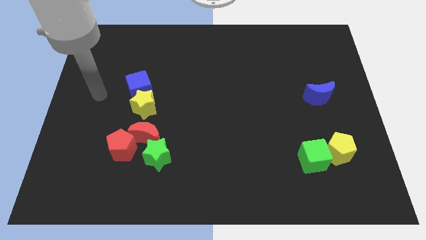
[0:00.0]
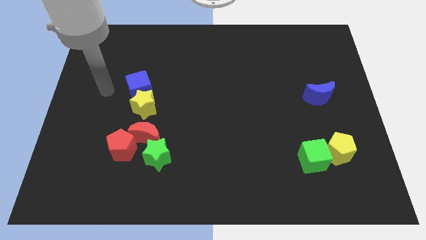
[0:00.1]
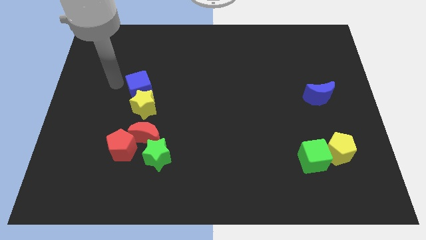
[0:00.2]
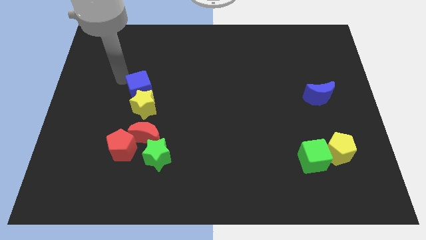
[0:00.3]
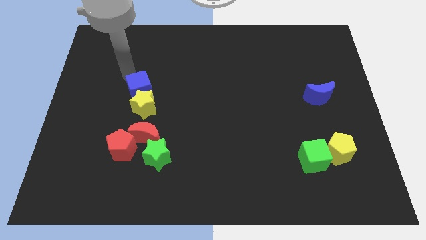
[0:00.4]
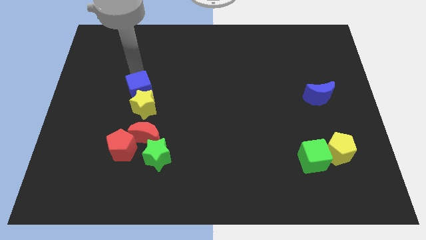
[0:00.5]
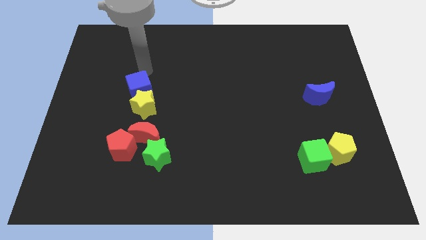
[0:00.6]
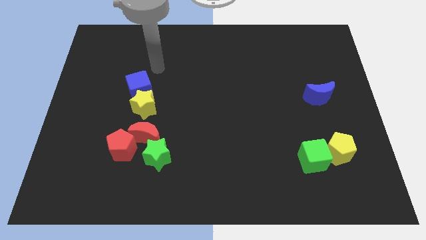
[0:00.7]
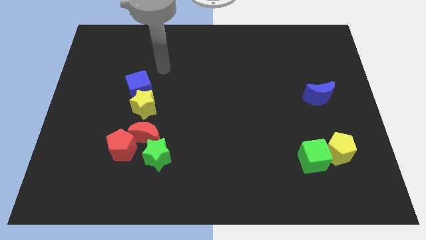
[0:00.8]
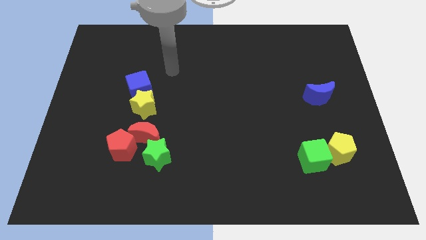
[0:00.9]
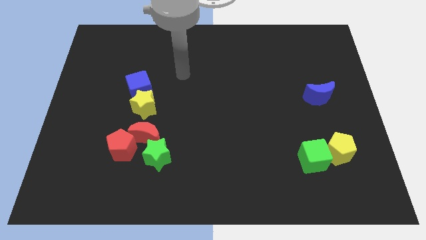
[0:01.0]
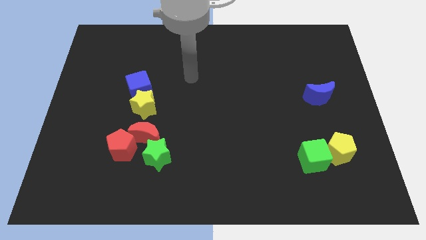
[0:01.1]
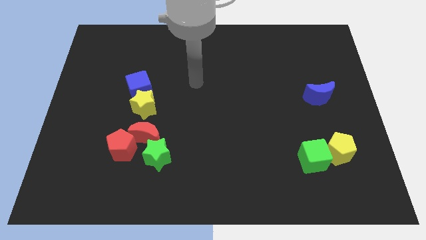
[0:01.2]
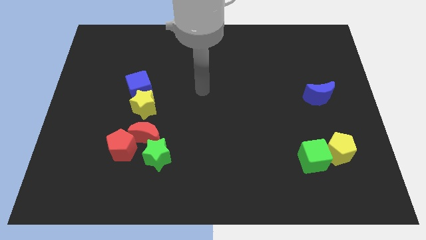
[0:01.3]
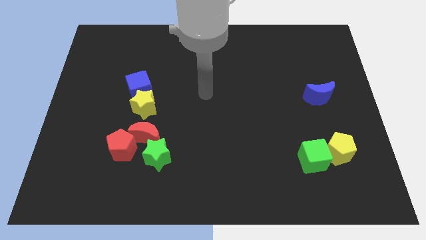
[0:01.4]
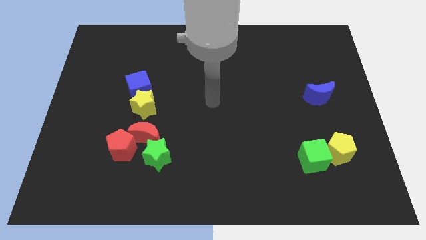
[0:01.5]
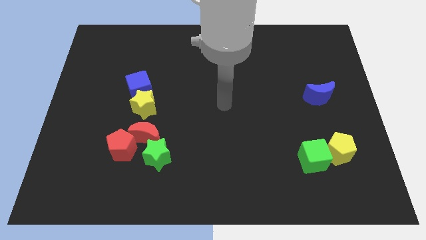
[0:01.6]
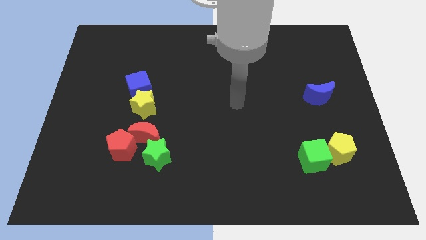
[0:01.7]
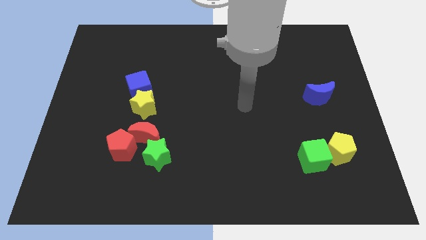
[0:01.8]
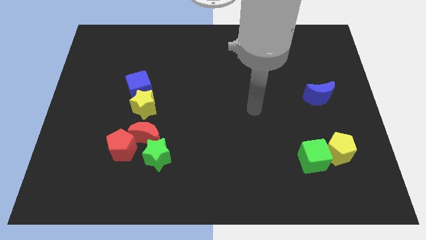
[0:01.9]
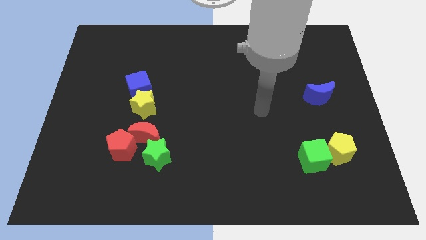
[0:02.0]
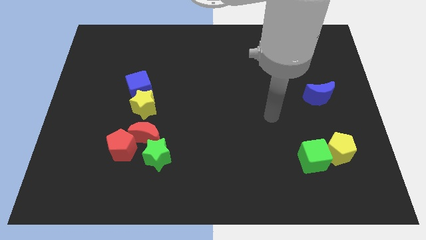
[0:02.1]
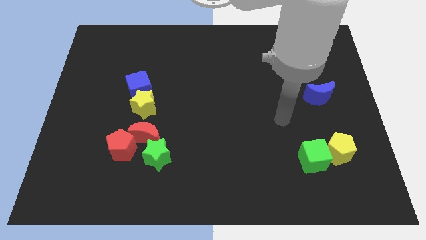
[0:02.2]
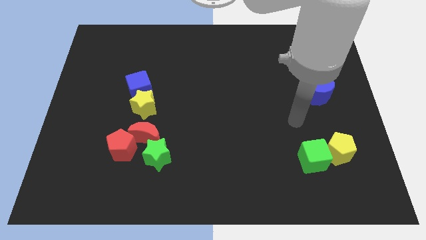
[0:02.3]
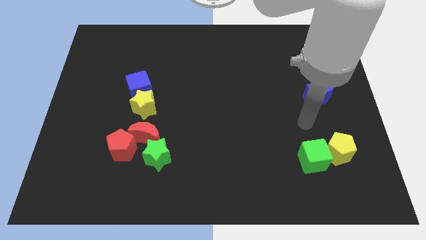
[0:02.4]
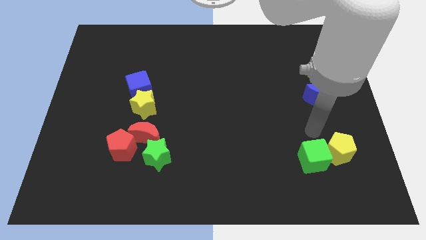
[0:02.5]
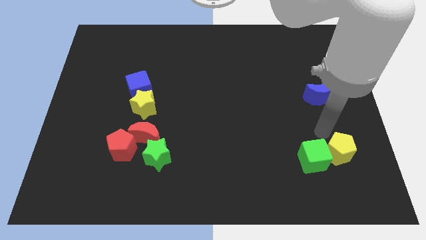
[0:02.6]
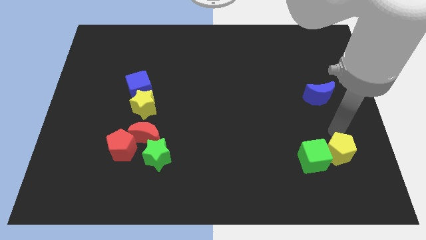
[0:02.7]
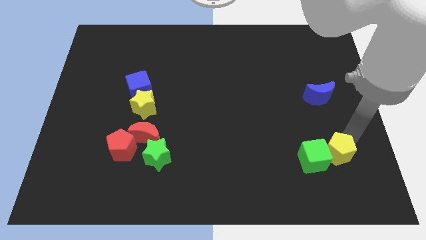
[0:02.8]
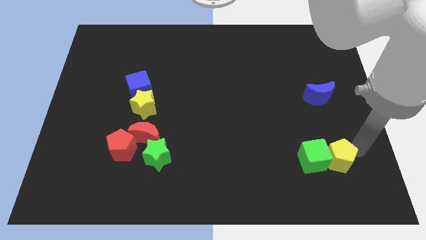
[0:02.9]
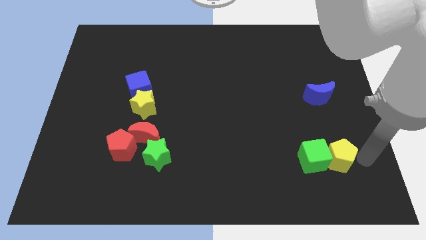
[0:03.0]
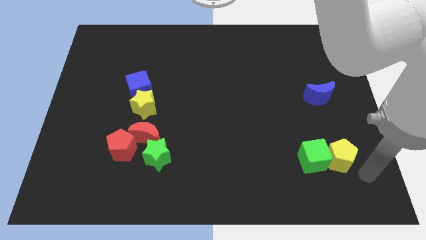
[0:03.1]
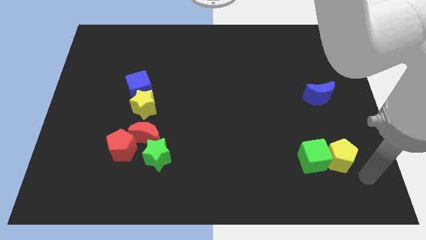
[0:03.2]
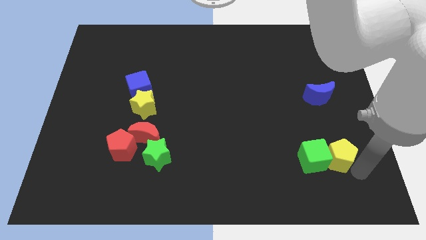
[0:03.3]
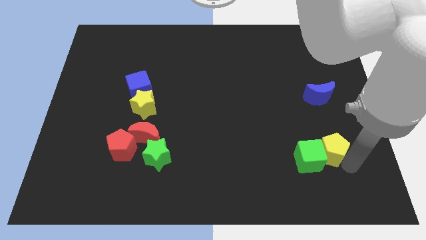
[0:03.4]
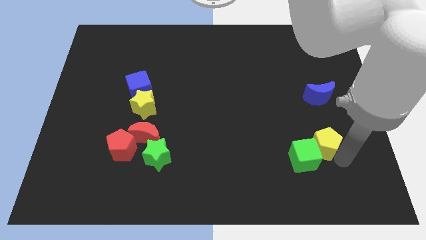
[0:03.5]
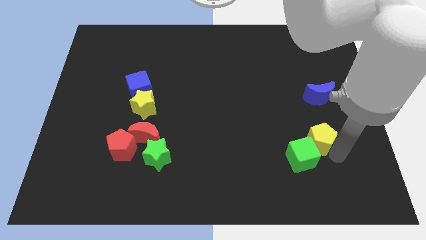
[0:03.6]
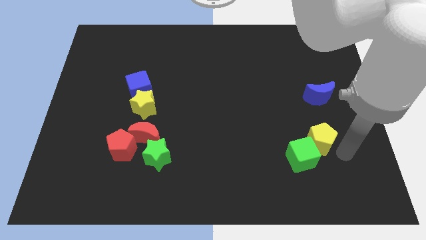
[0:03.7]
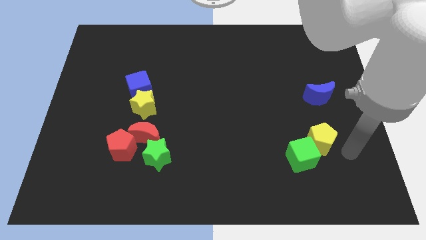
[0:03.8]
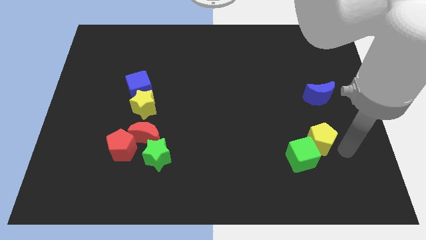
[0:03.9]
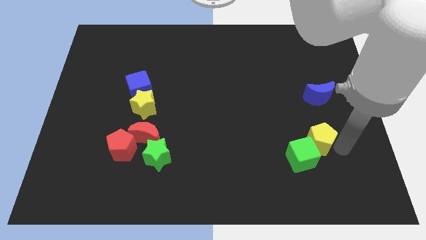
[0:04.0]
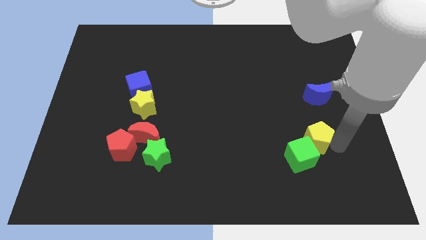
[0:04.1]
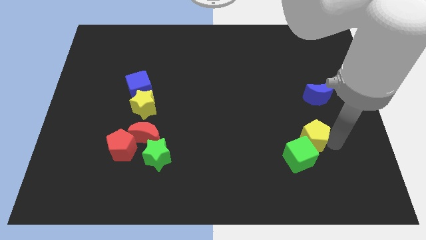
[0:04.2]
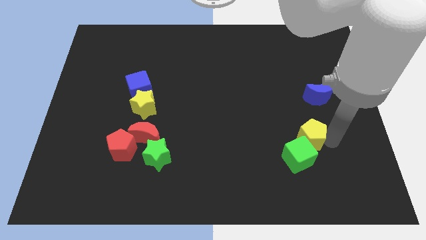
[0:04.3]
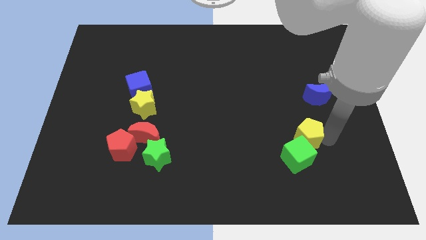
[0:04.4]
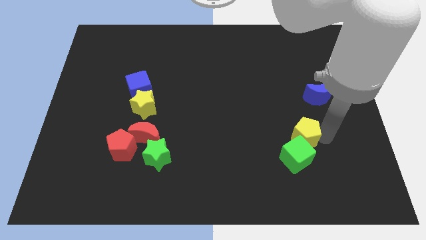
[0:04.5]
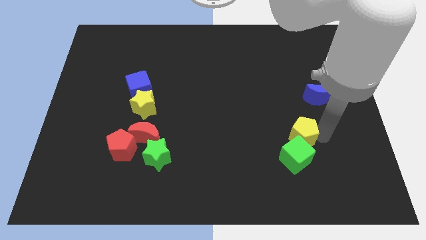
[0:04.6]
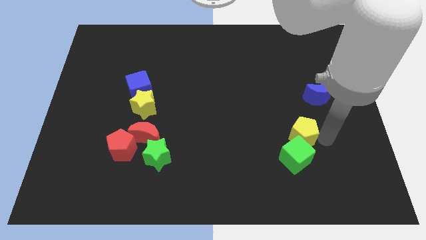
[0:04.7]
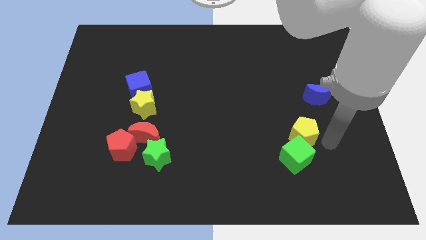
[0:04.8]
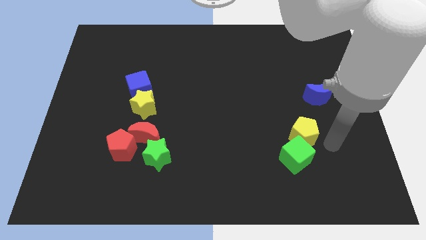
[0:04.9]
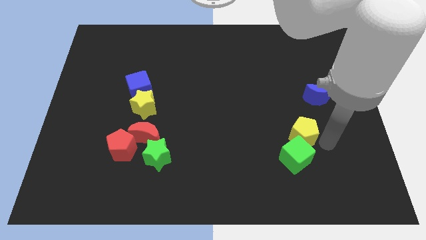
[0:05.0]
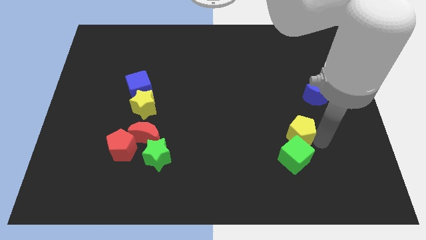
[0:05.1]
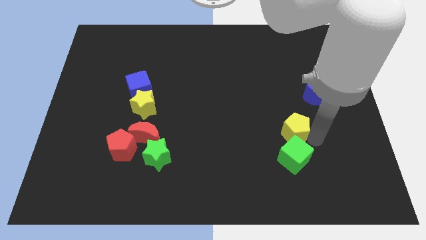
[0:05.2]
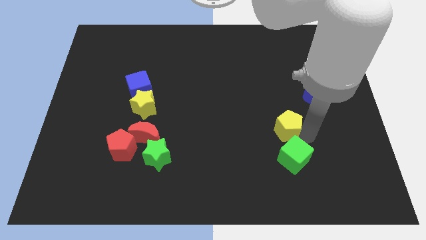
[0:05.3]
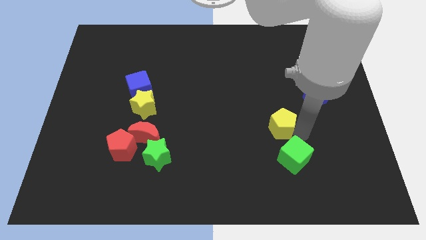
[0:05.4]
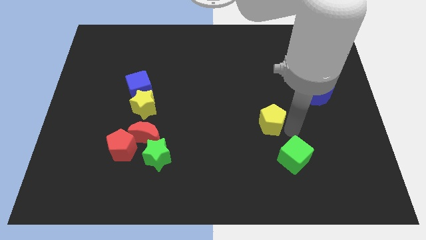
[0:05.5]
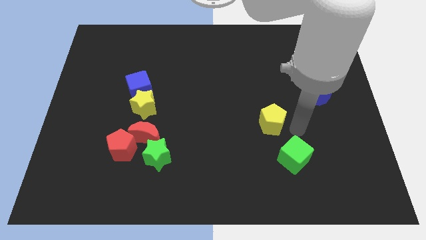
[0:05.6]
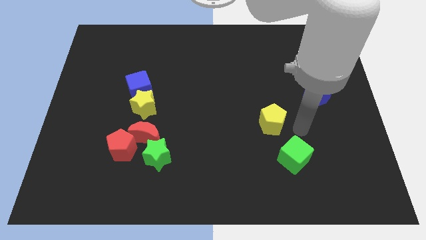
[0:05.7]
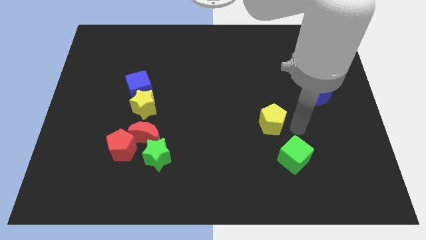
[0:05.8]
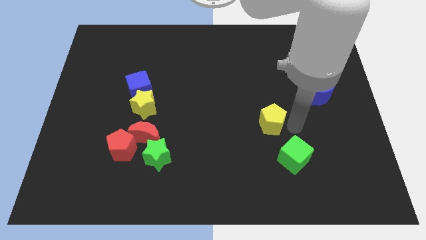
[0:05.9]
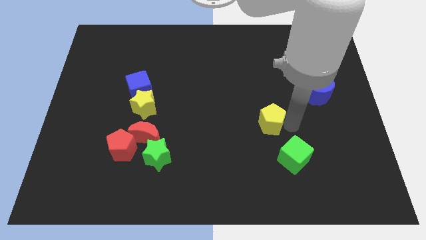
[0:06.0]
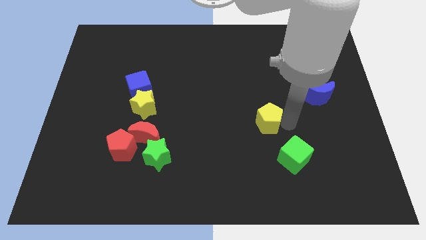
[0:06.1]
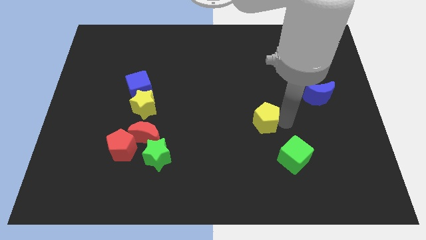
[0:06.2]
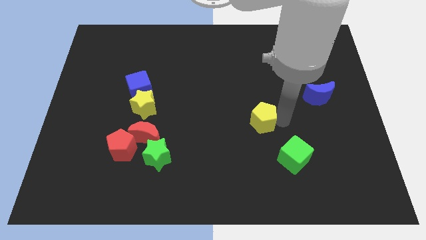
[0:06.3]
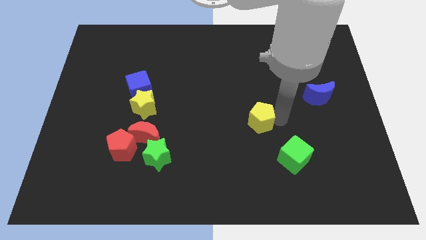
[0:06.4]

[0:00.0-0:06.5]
put the yellow pentagon to the center of the board
